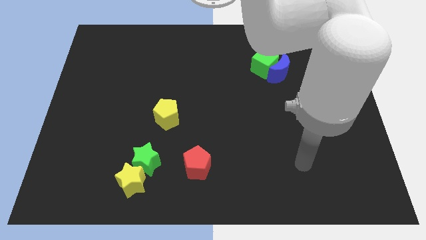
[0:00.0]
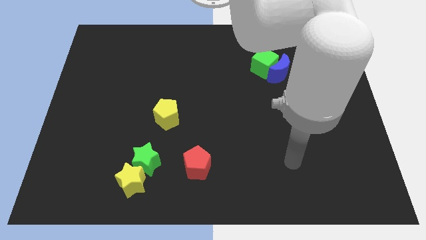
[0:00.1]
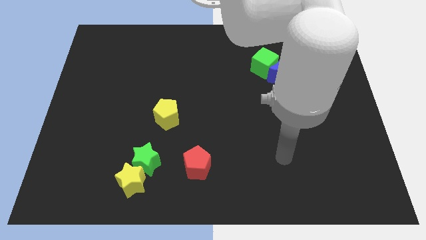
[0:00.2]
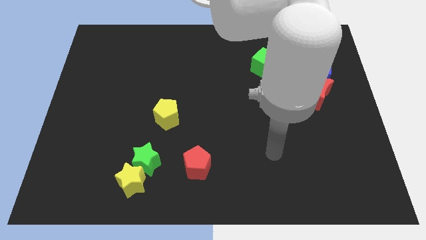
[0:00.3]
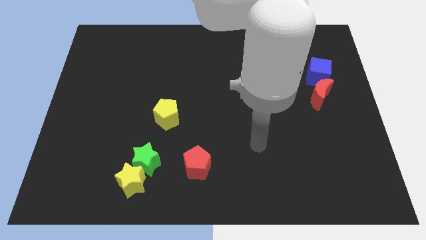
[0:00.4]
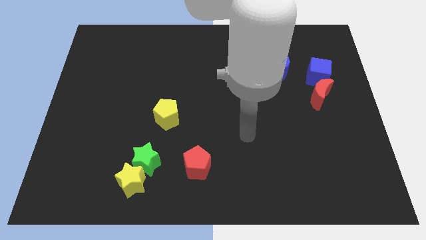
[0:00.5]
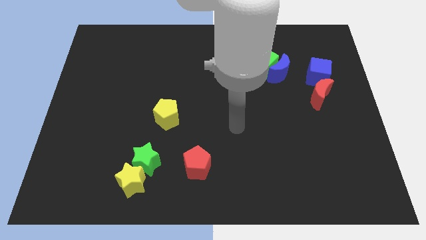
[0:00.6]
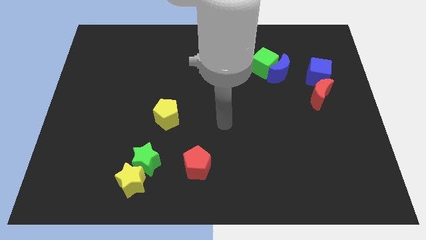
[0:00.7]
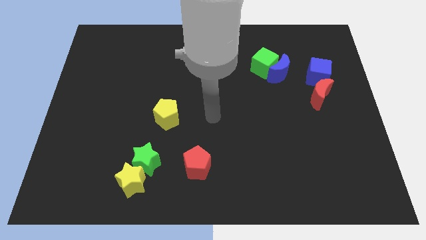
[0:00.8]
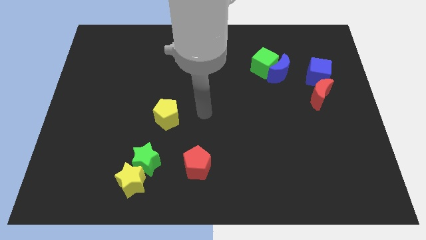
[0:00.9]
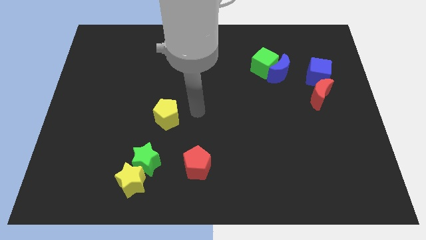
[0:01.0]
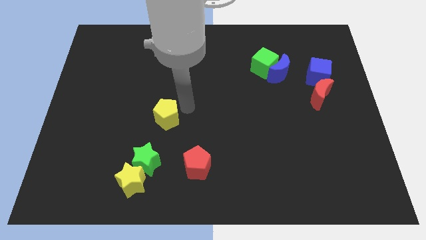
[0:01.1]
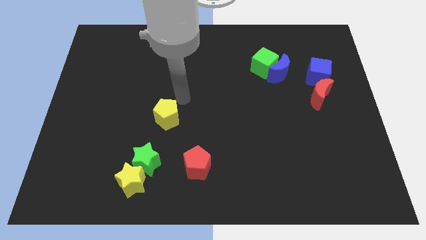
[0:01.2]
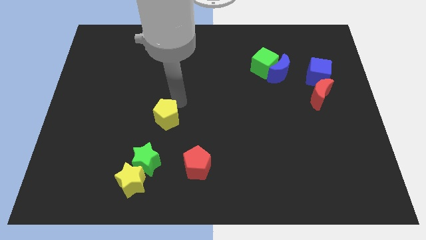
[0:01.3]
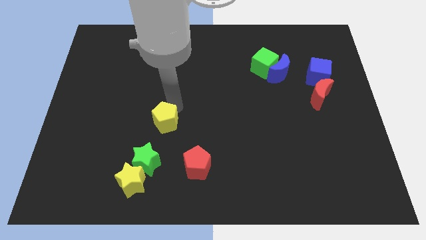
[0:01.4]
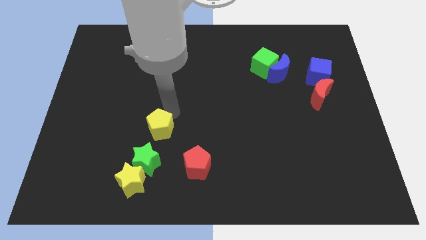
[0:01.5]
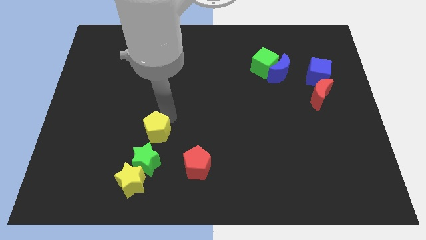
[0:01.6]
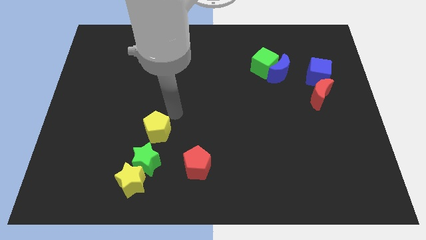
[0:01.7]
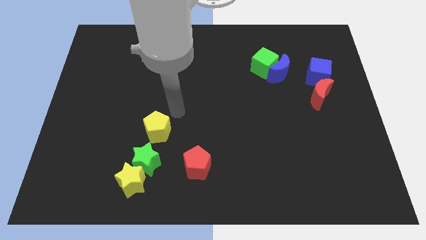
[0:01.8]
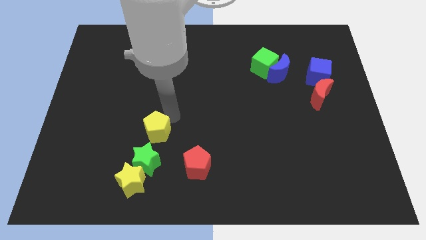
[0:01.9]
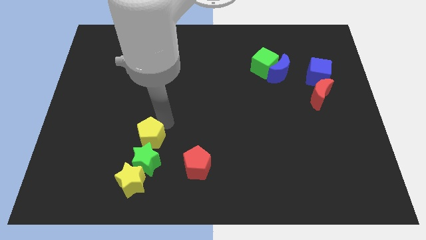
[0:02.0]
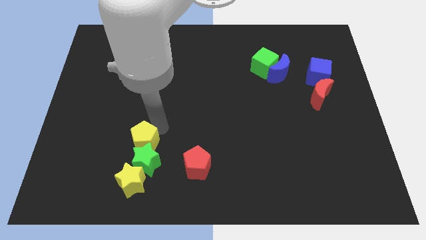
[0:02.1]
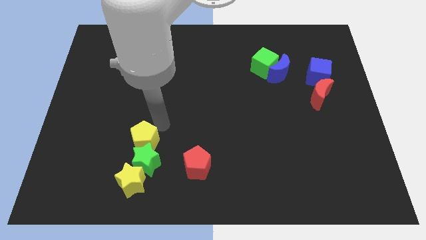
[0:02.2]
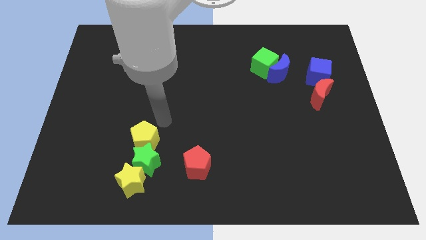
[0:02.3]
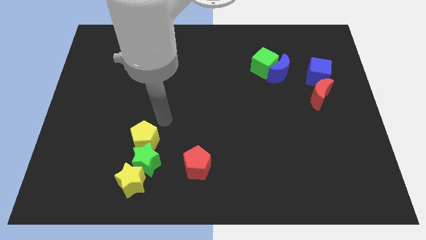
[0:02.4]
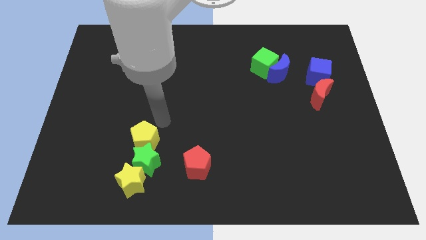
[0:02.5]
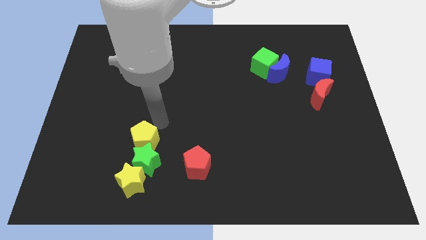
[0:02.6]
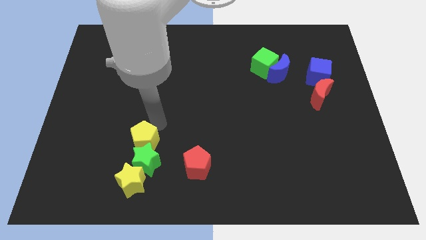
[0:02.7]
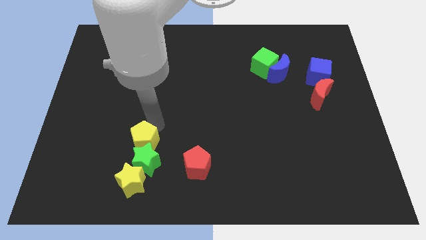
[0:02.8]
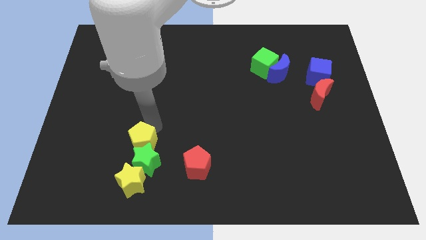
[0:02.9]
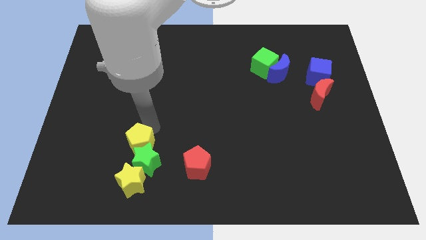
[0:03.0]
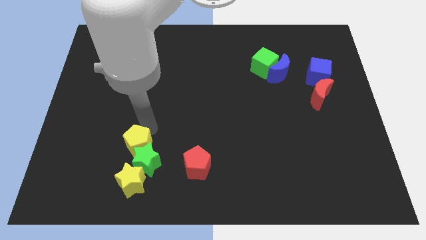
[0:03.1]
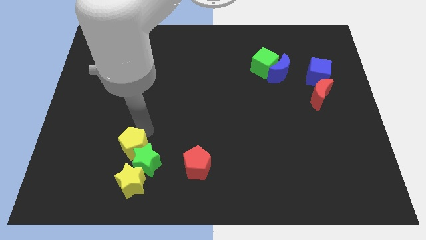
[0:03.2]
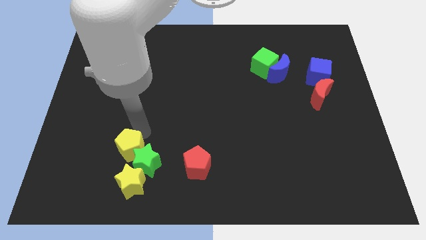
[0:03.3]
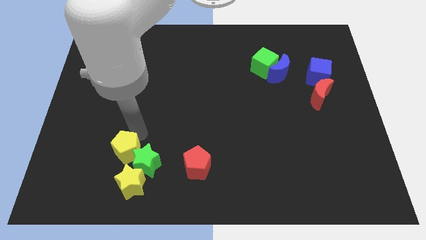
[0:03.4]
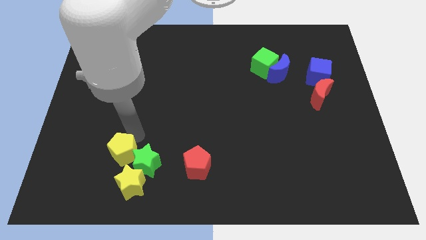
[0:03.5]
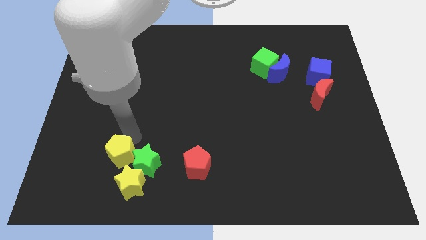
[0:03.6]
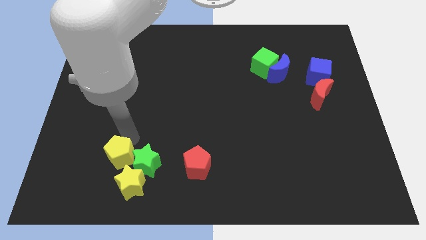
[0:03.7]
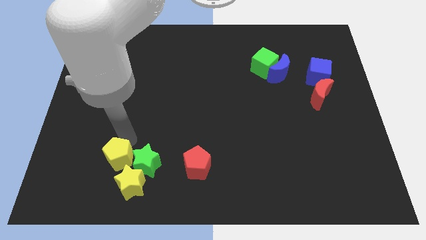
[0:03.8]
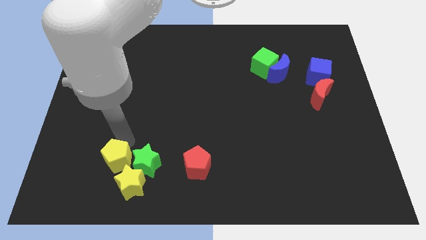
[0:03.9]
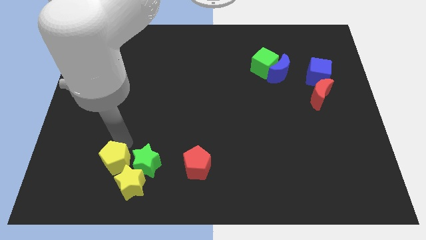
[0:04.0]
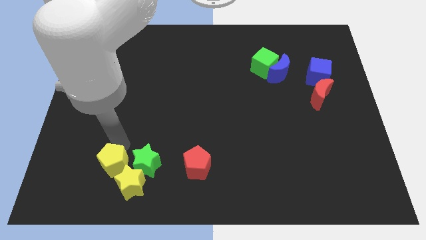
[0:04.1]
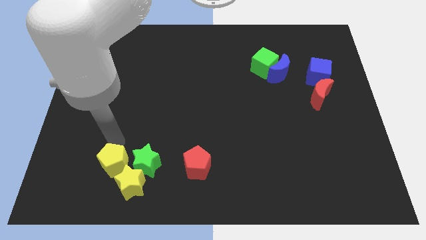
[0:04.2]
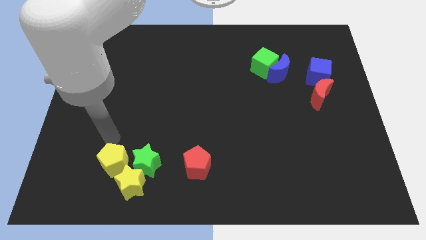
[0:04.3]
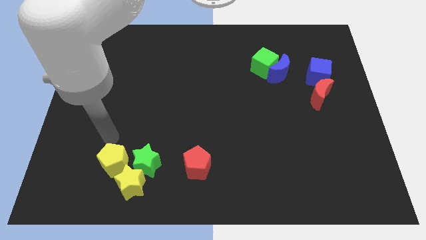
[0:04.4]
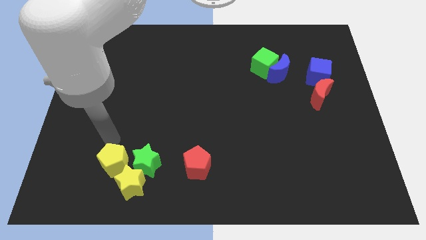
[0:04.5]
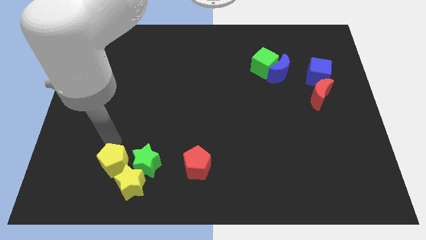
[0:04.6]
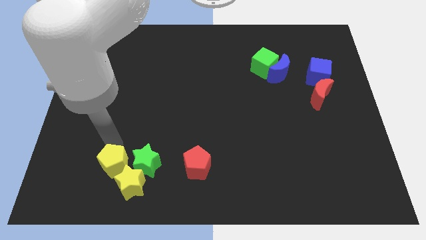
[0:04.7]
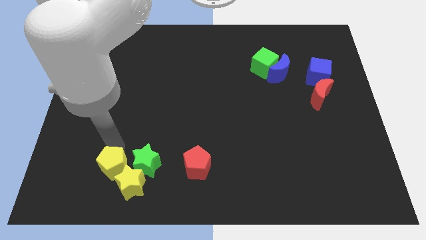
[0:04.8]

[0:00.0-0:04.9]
put the yellow pentagon diagonally down and to the left of the green star

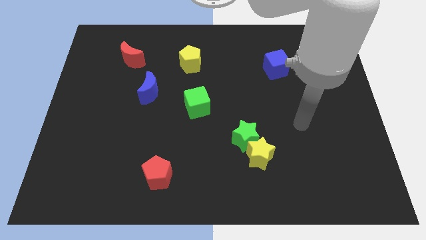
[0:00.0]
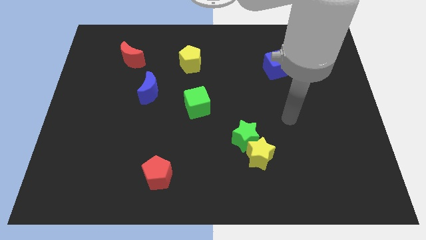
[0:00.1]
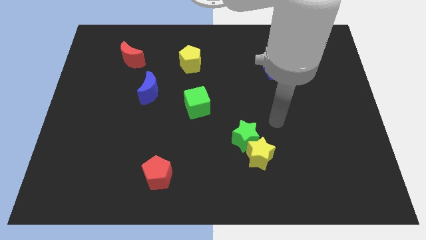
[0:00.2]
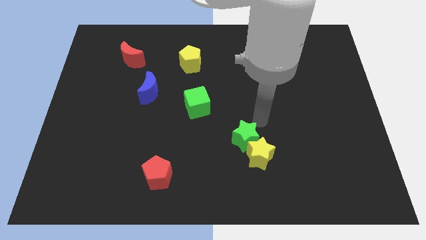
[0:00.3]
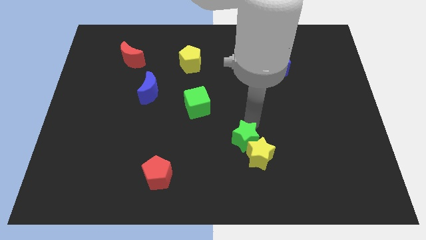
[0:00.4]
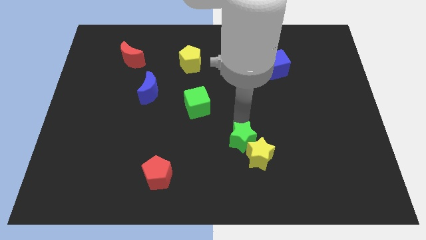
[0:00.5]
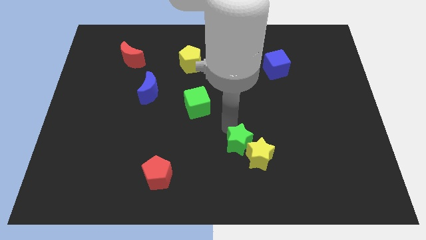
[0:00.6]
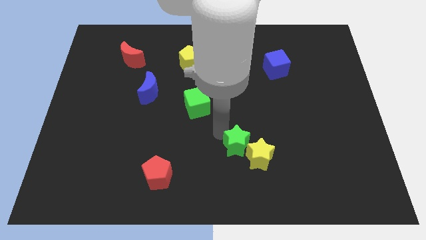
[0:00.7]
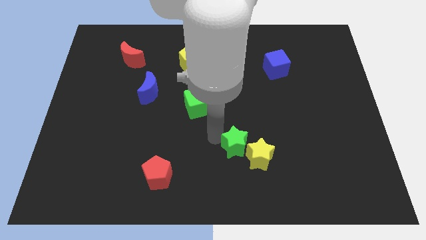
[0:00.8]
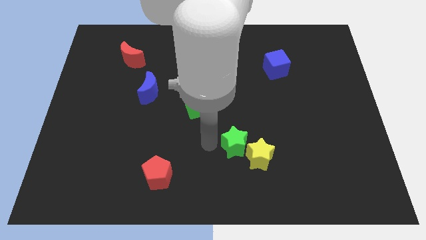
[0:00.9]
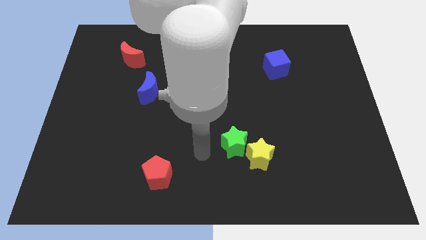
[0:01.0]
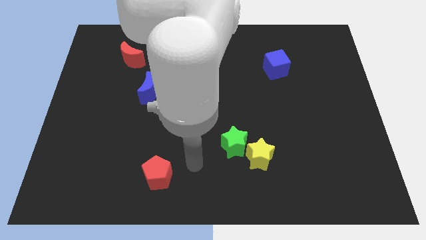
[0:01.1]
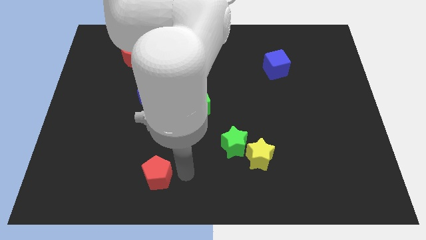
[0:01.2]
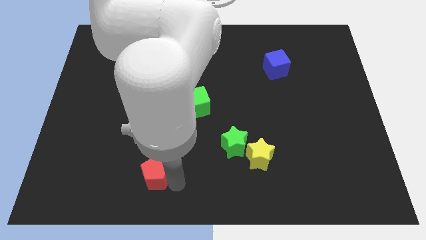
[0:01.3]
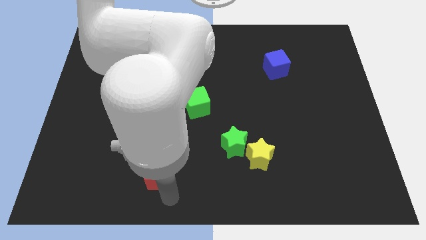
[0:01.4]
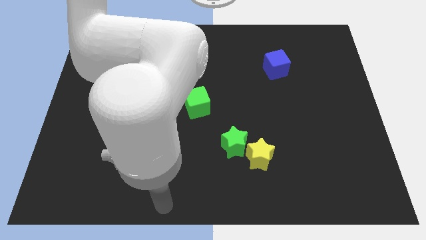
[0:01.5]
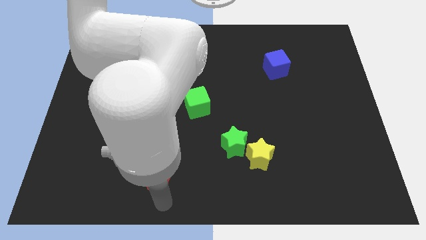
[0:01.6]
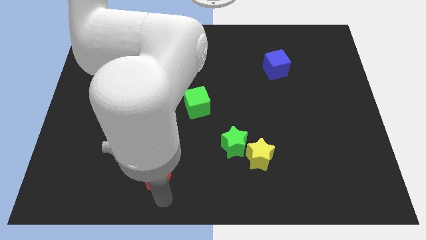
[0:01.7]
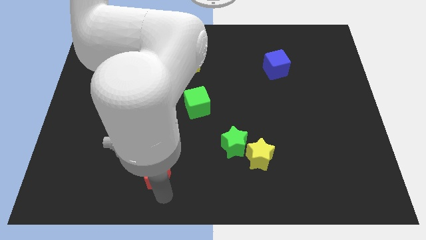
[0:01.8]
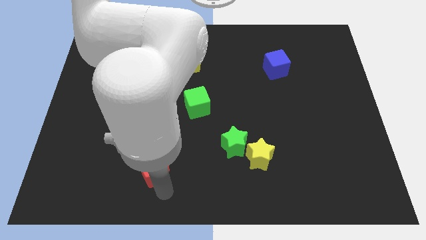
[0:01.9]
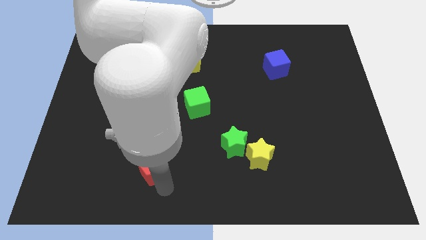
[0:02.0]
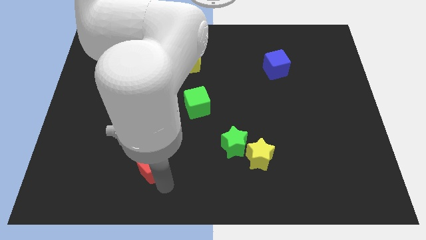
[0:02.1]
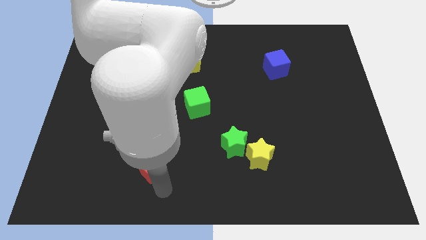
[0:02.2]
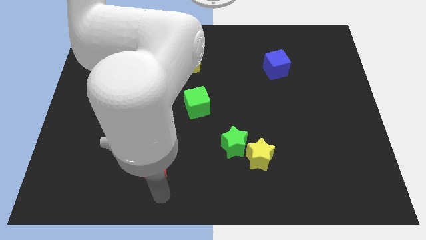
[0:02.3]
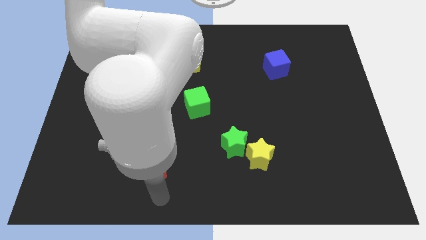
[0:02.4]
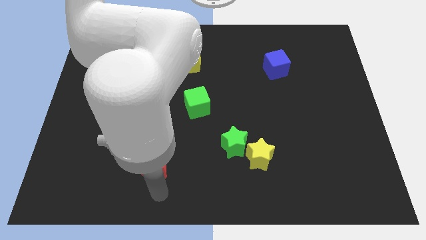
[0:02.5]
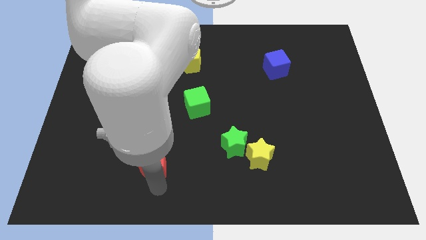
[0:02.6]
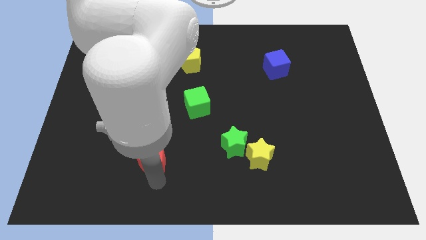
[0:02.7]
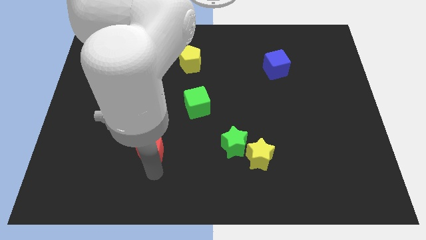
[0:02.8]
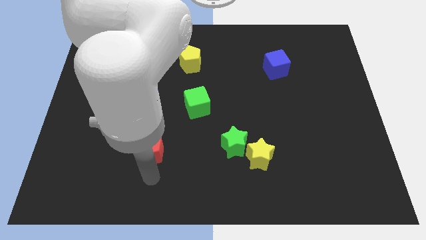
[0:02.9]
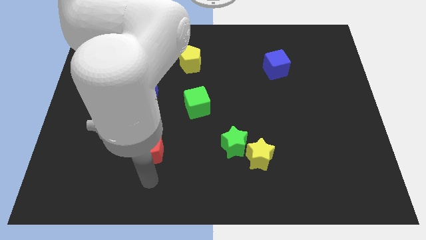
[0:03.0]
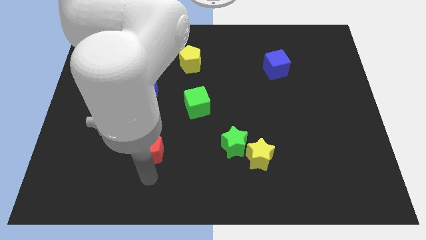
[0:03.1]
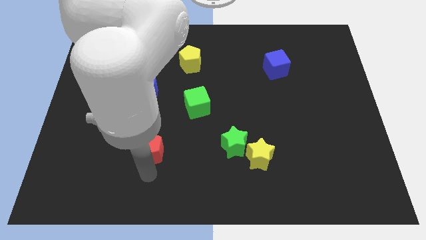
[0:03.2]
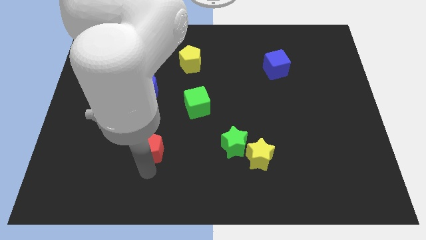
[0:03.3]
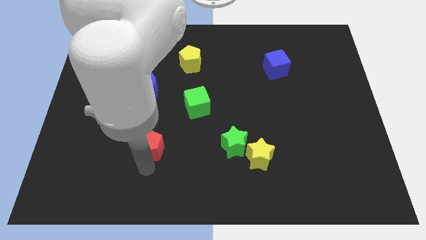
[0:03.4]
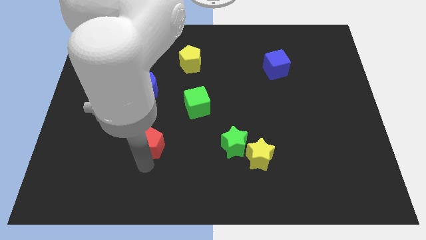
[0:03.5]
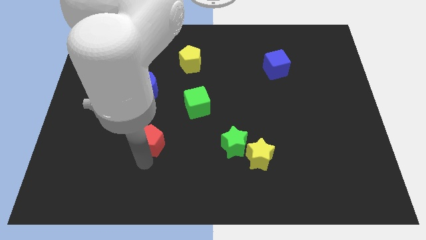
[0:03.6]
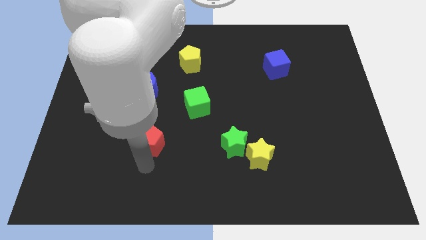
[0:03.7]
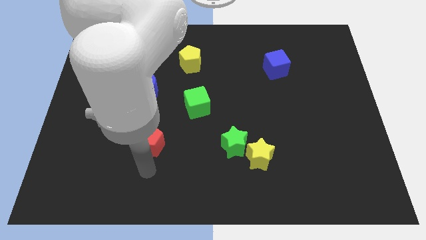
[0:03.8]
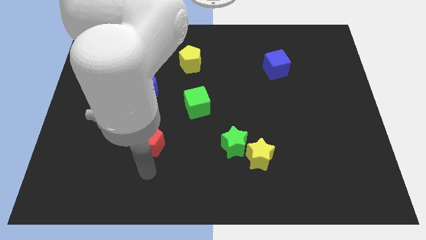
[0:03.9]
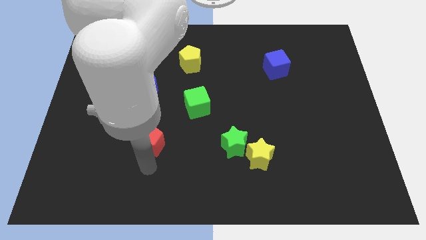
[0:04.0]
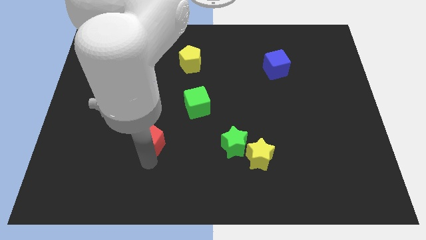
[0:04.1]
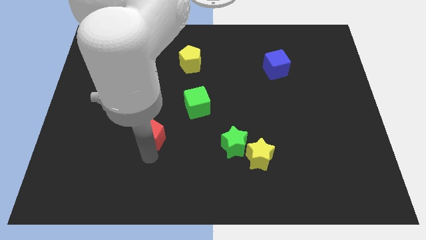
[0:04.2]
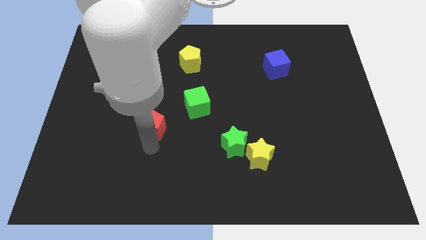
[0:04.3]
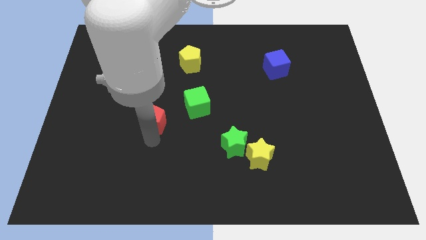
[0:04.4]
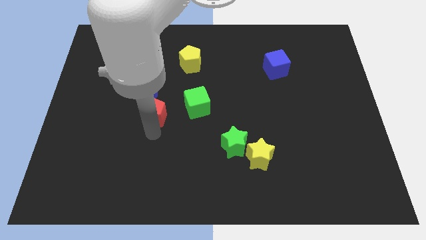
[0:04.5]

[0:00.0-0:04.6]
move the red pentagon to the left of the green cube
